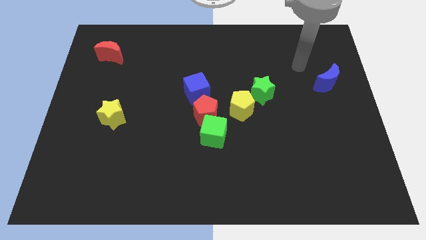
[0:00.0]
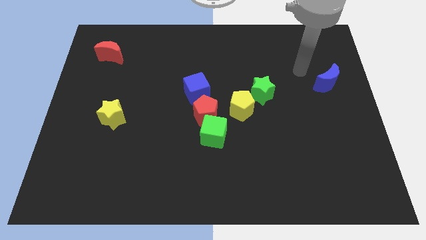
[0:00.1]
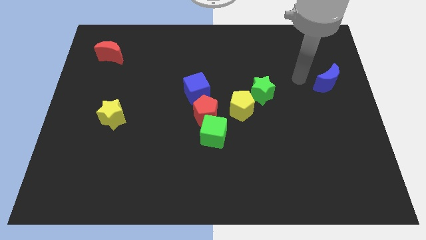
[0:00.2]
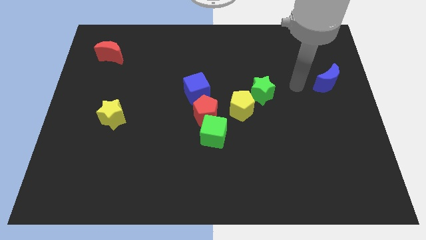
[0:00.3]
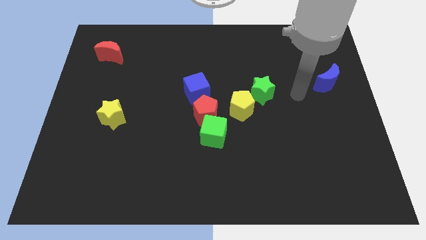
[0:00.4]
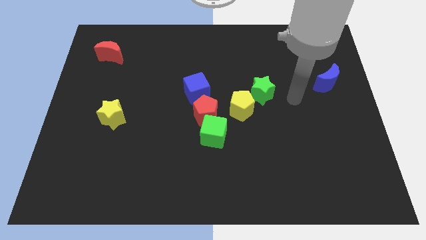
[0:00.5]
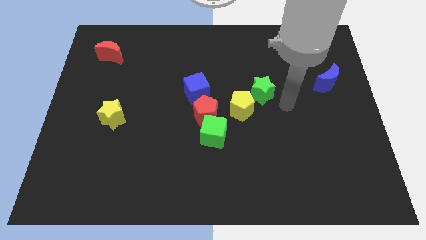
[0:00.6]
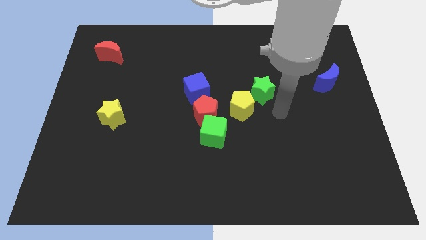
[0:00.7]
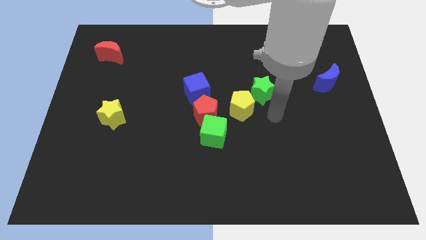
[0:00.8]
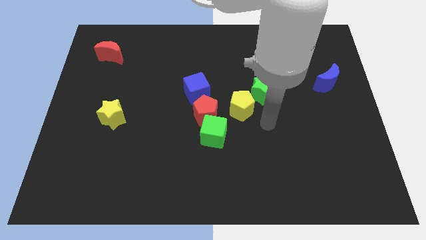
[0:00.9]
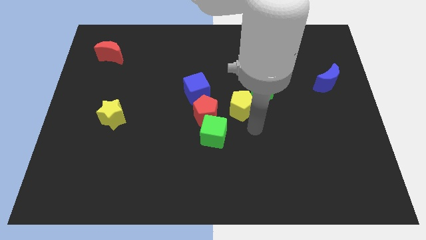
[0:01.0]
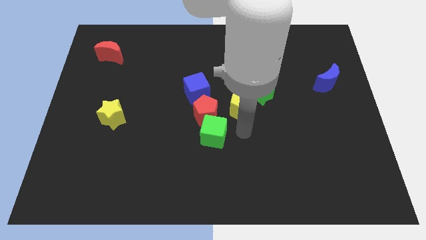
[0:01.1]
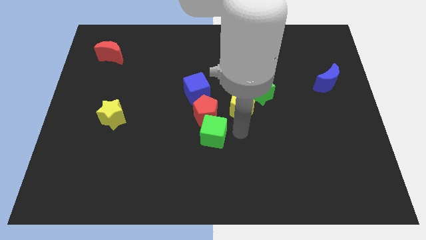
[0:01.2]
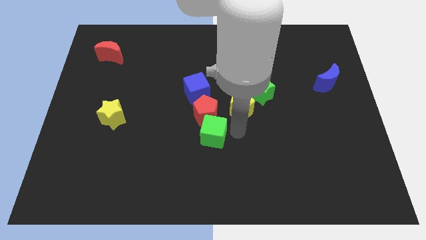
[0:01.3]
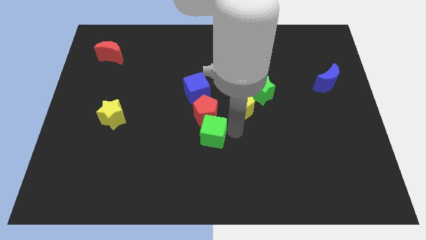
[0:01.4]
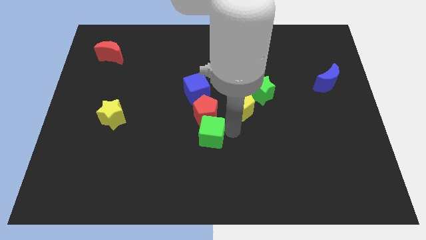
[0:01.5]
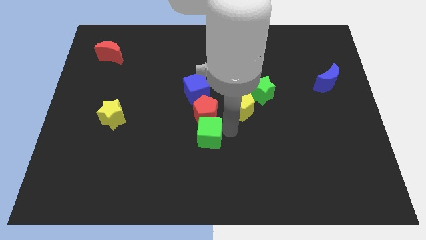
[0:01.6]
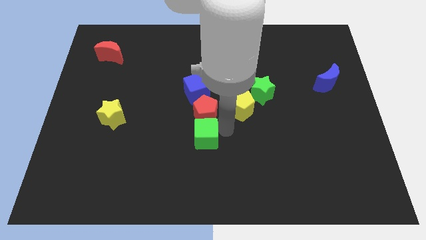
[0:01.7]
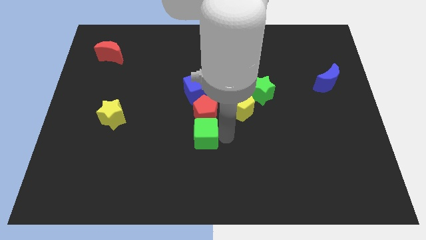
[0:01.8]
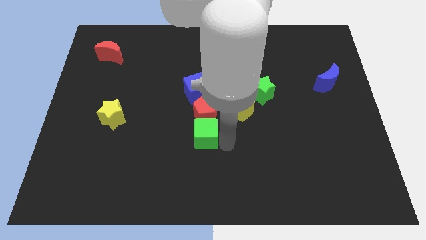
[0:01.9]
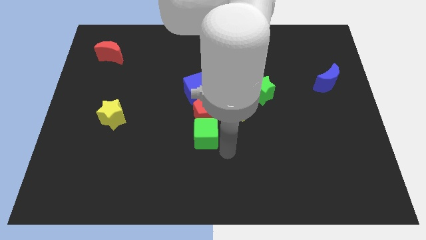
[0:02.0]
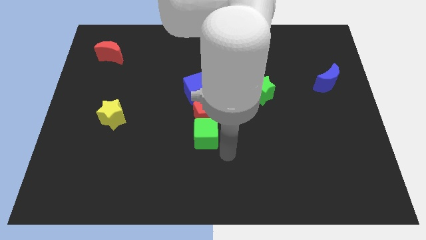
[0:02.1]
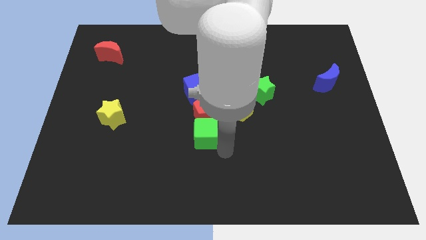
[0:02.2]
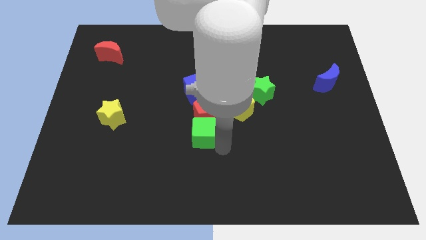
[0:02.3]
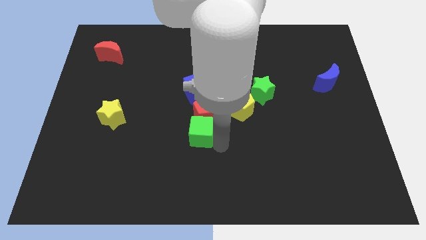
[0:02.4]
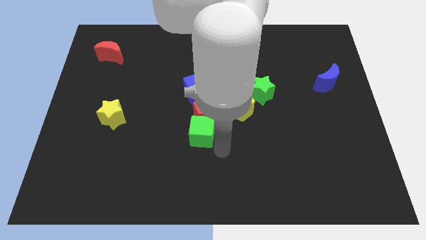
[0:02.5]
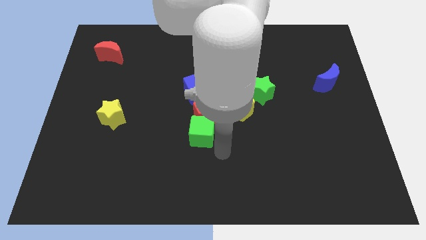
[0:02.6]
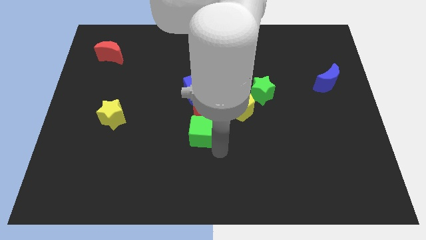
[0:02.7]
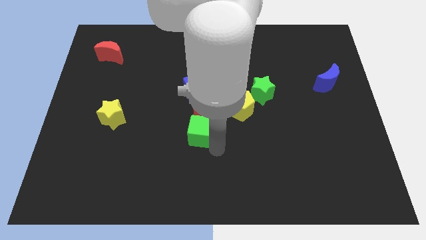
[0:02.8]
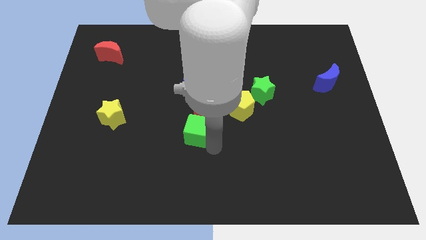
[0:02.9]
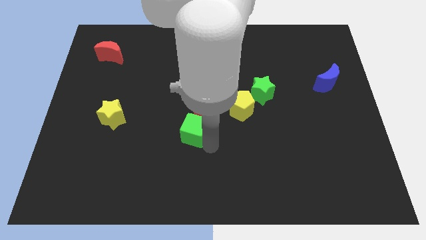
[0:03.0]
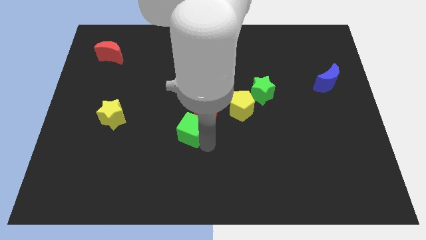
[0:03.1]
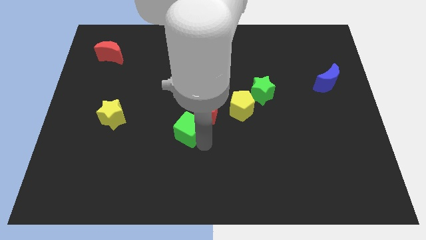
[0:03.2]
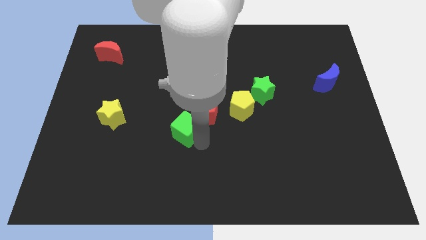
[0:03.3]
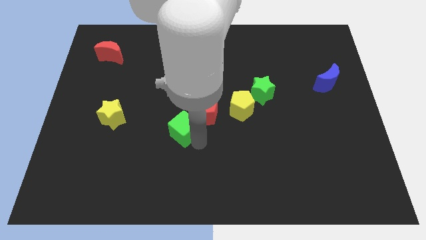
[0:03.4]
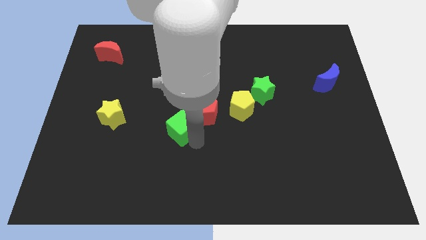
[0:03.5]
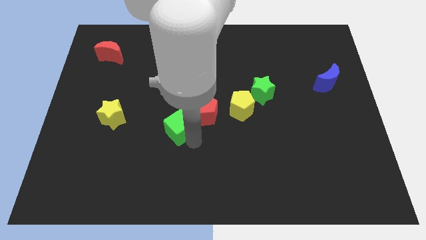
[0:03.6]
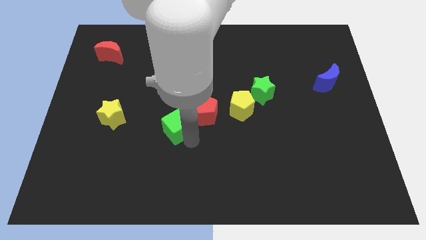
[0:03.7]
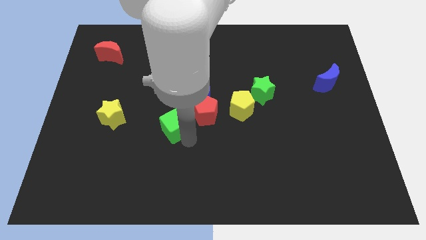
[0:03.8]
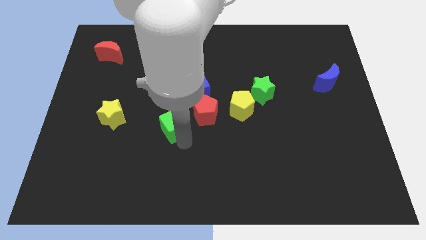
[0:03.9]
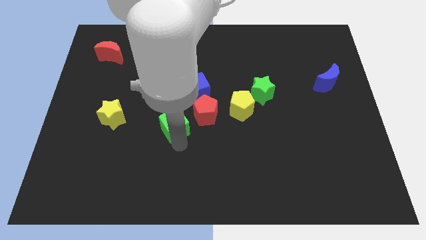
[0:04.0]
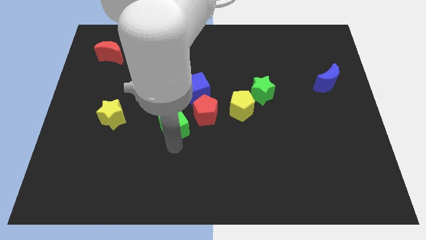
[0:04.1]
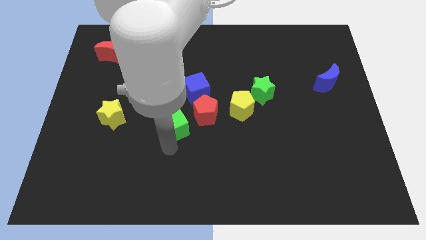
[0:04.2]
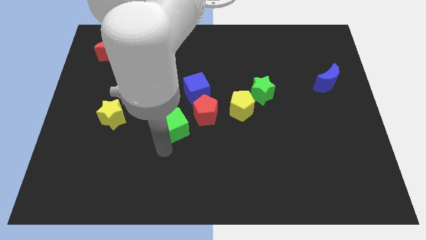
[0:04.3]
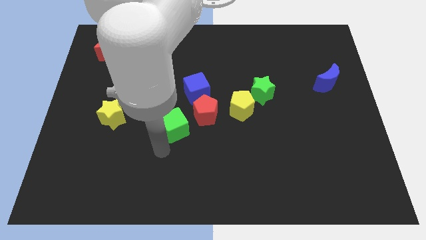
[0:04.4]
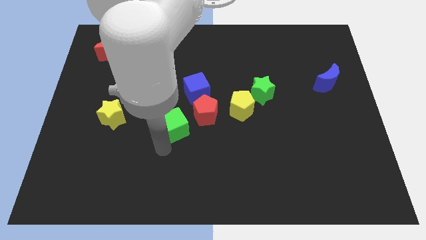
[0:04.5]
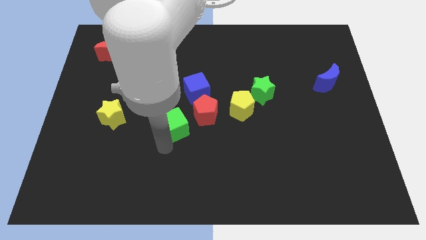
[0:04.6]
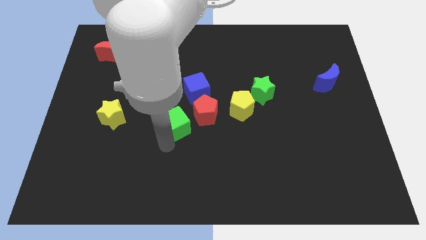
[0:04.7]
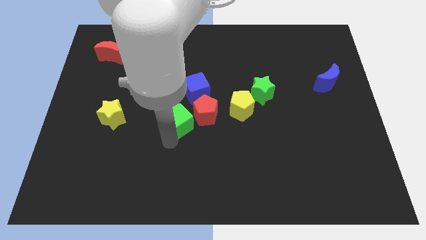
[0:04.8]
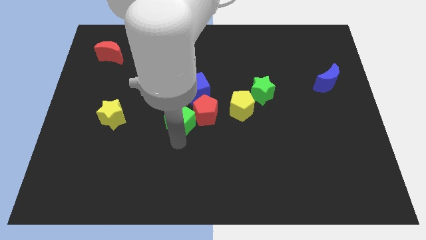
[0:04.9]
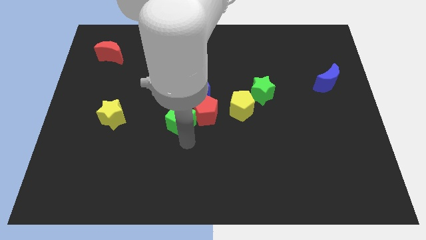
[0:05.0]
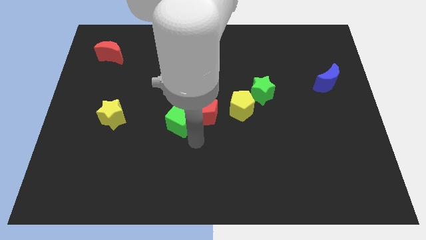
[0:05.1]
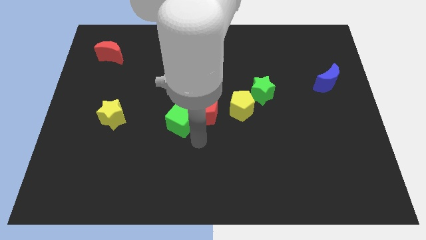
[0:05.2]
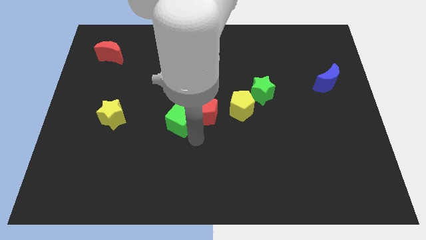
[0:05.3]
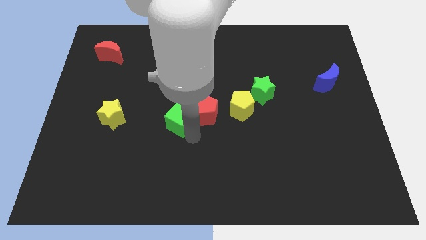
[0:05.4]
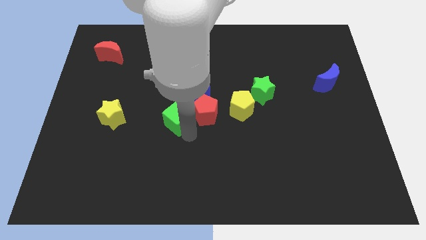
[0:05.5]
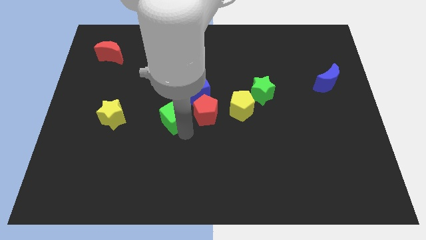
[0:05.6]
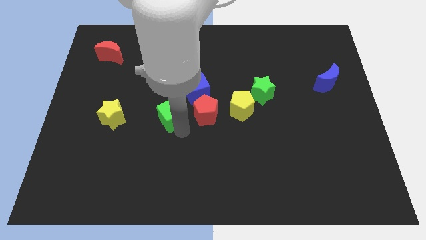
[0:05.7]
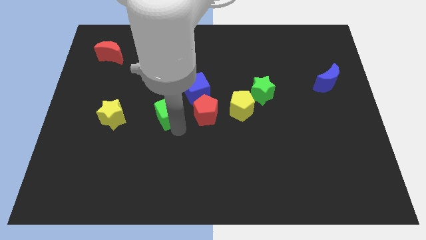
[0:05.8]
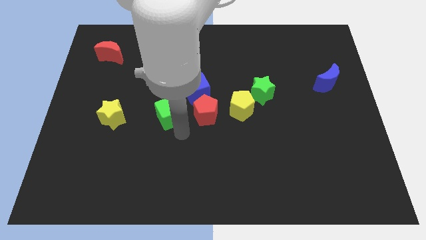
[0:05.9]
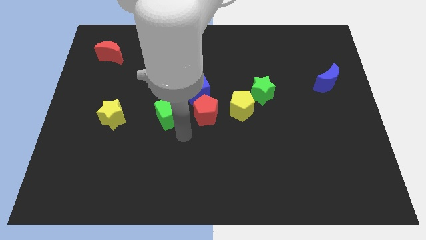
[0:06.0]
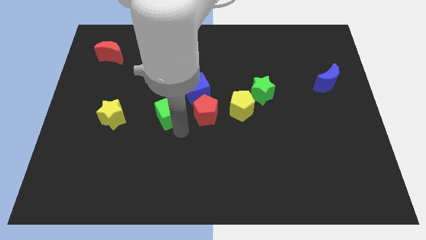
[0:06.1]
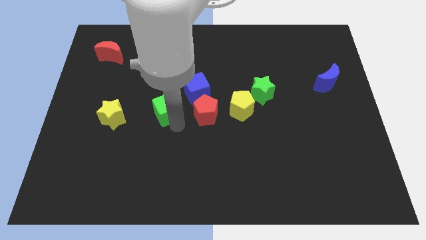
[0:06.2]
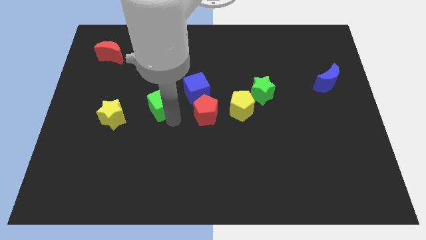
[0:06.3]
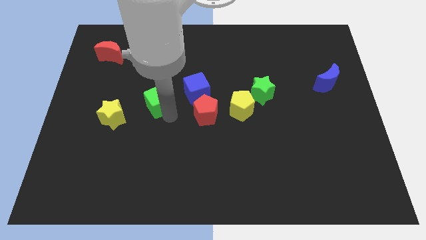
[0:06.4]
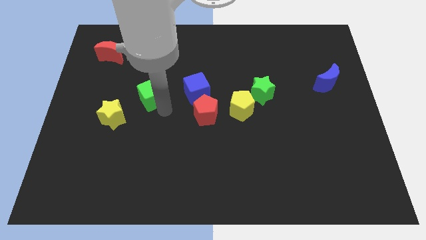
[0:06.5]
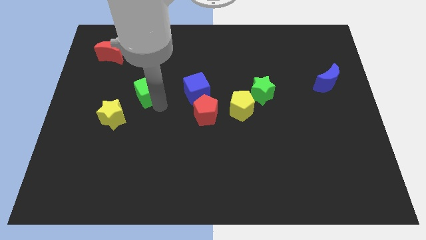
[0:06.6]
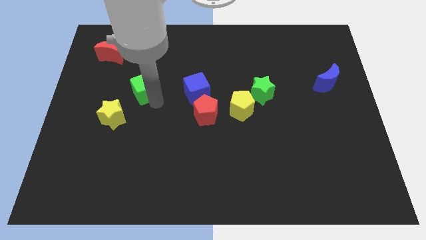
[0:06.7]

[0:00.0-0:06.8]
move the green cube up and left diagonally

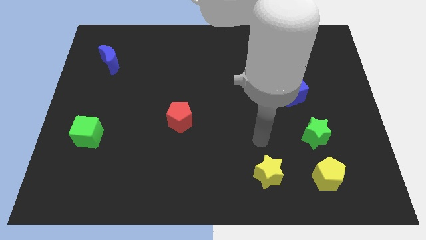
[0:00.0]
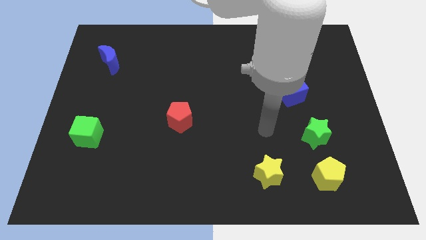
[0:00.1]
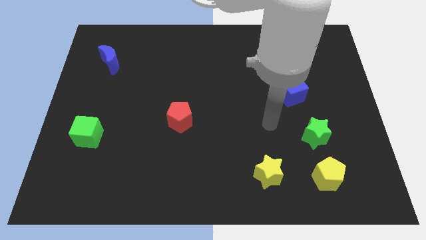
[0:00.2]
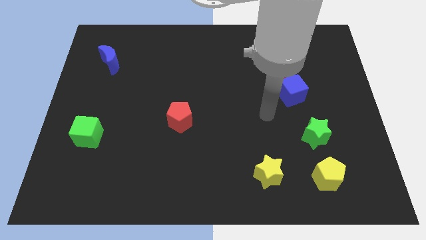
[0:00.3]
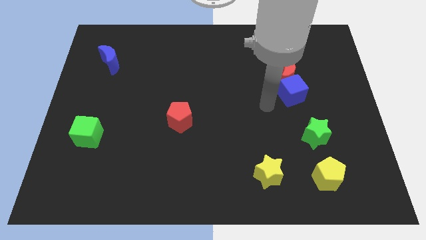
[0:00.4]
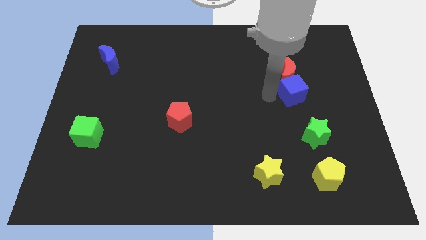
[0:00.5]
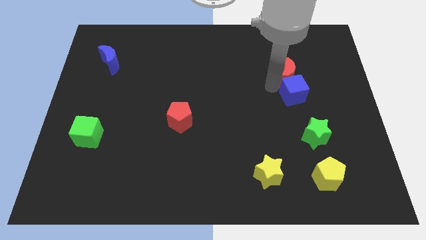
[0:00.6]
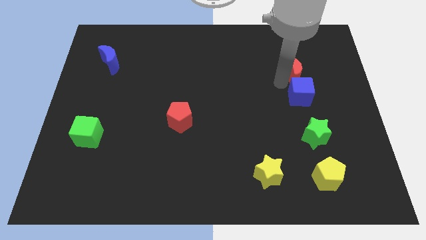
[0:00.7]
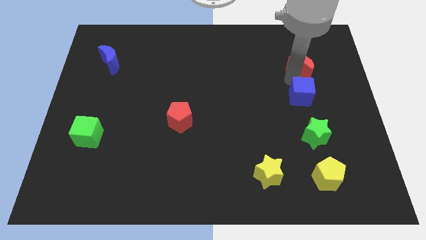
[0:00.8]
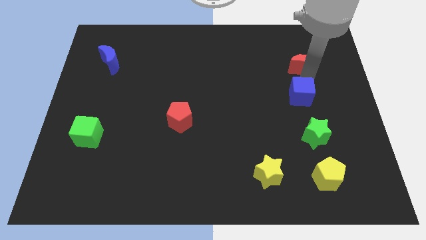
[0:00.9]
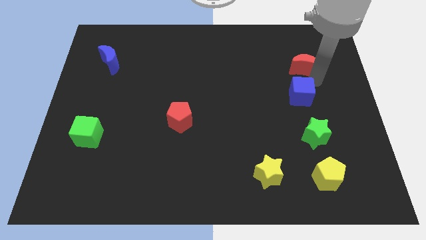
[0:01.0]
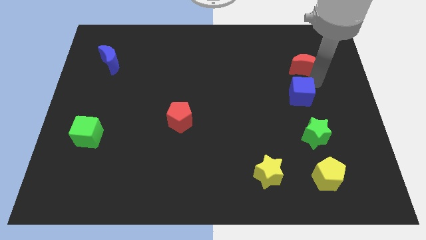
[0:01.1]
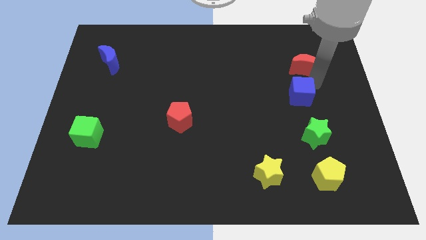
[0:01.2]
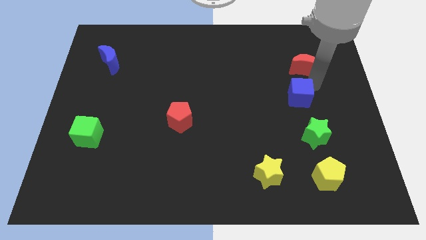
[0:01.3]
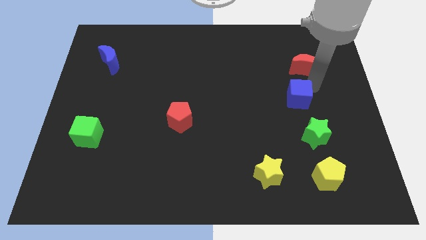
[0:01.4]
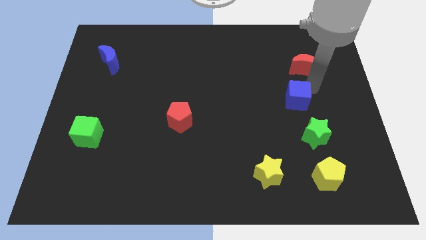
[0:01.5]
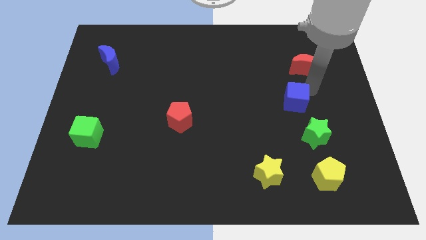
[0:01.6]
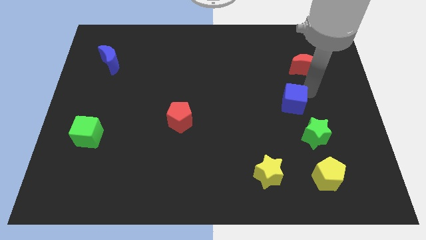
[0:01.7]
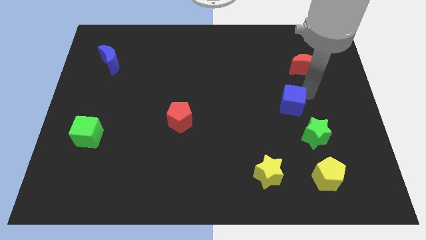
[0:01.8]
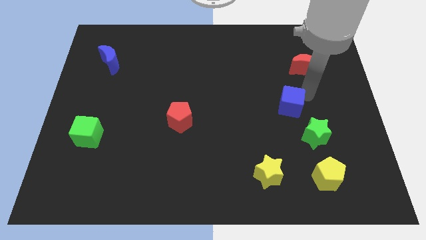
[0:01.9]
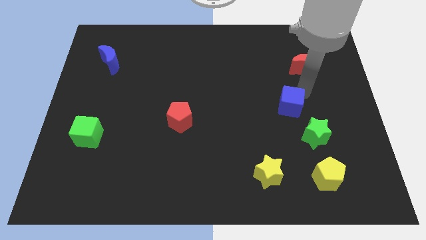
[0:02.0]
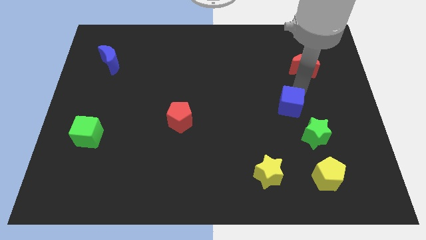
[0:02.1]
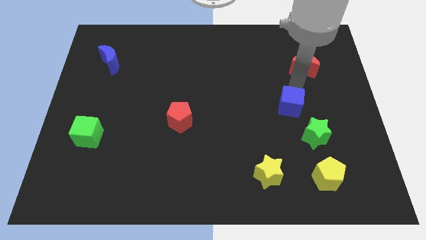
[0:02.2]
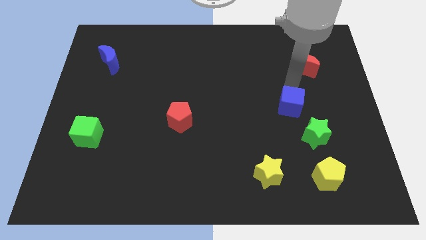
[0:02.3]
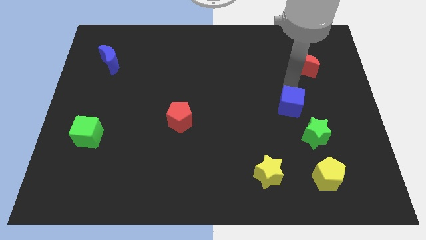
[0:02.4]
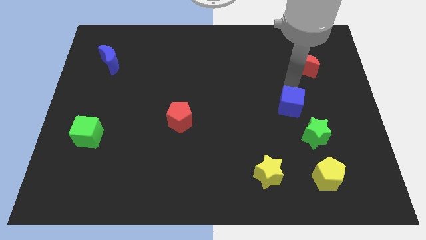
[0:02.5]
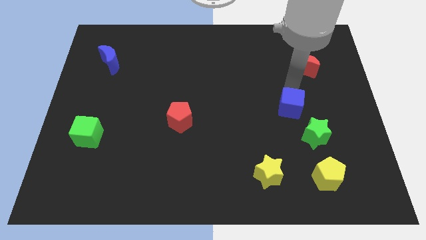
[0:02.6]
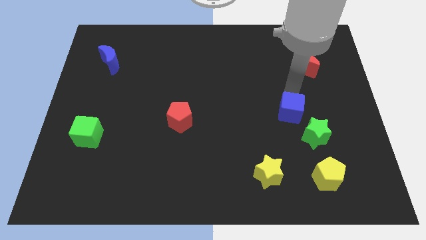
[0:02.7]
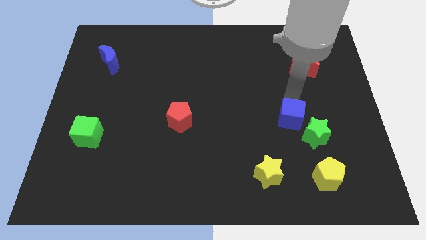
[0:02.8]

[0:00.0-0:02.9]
move the blue cube somewhat down
